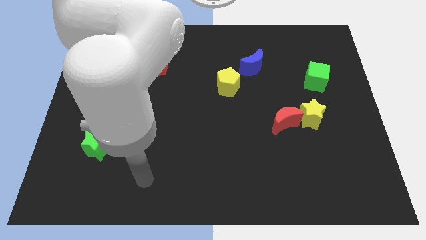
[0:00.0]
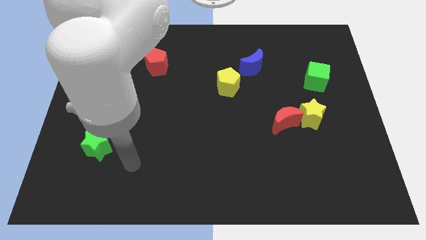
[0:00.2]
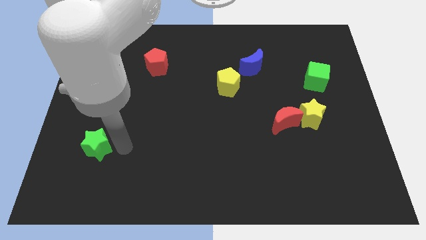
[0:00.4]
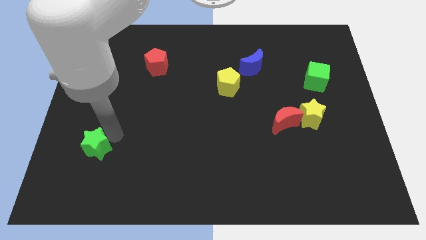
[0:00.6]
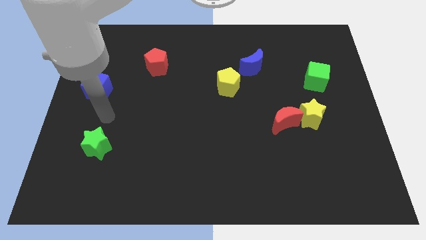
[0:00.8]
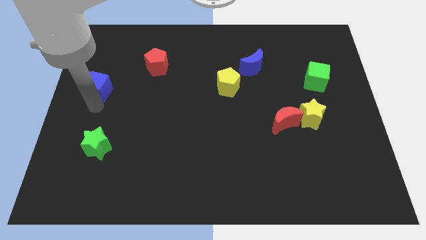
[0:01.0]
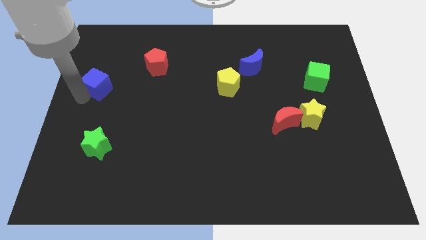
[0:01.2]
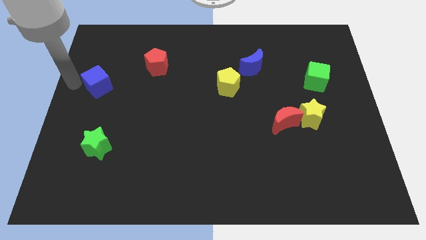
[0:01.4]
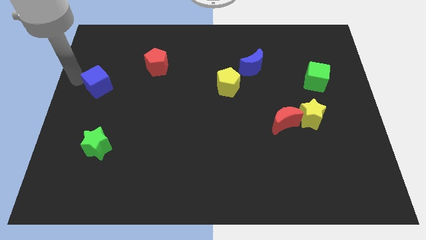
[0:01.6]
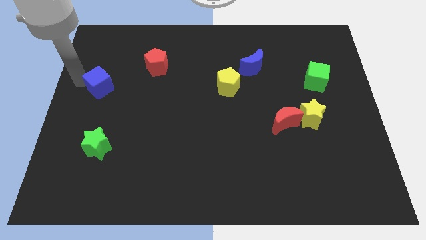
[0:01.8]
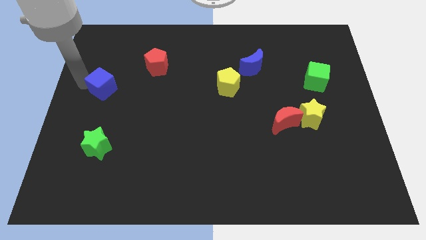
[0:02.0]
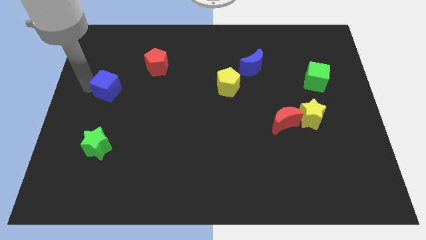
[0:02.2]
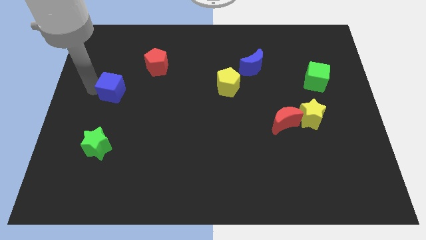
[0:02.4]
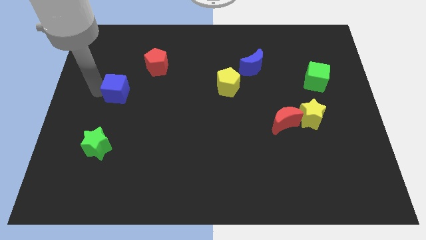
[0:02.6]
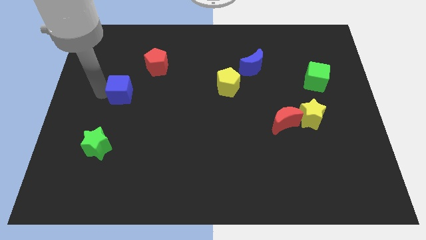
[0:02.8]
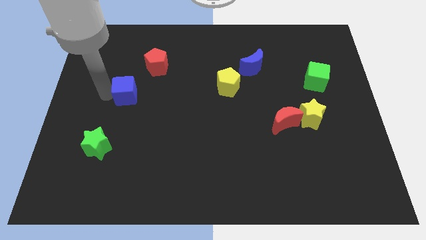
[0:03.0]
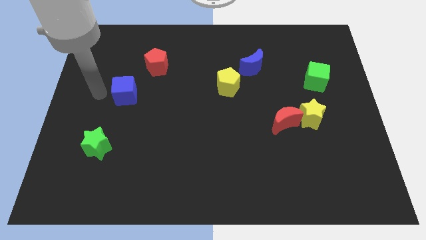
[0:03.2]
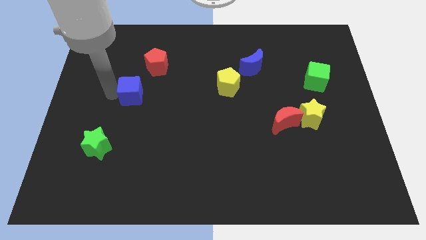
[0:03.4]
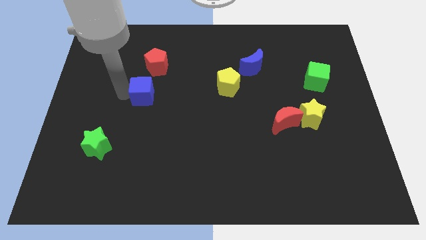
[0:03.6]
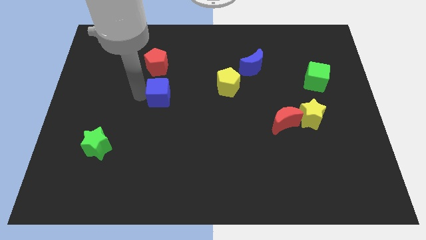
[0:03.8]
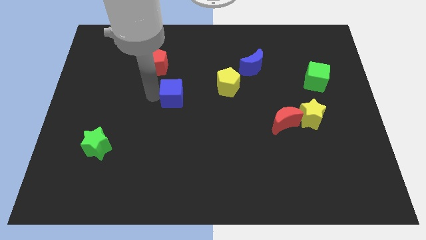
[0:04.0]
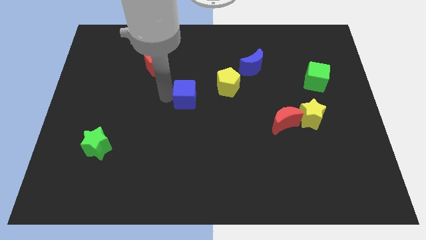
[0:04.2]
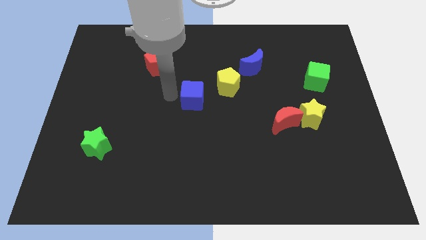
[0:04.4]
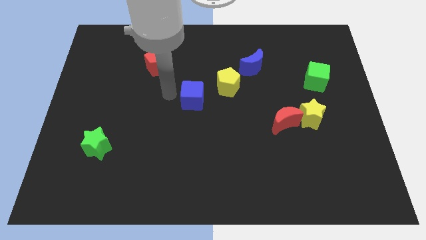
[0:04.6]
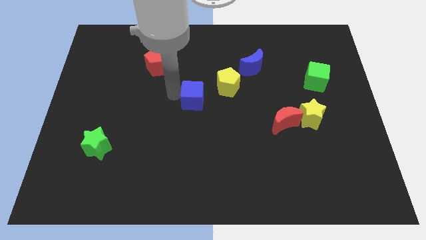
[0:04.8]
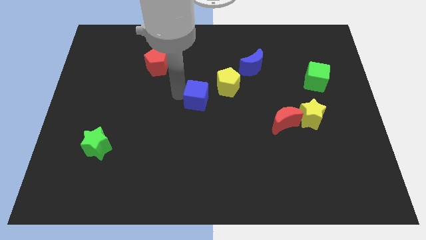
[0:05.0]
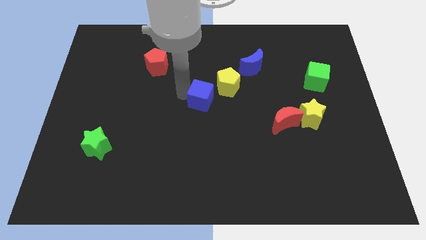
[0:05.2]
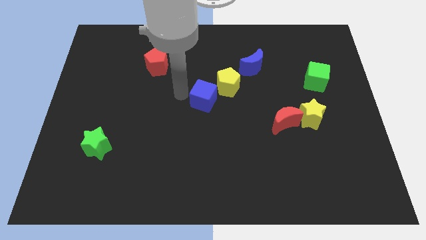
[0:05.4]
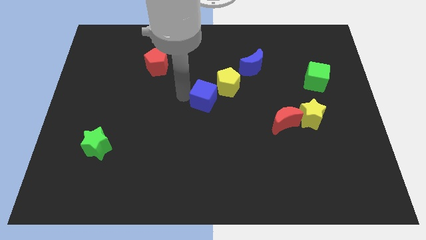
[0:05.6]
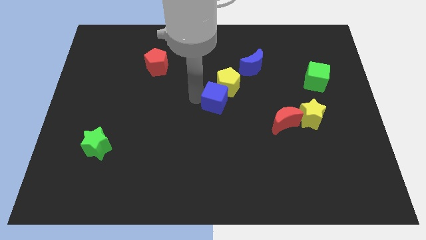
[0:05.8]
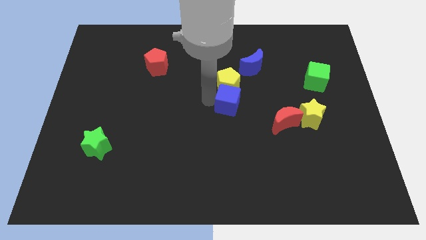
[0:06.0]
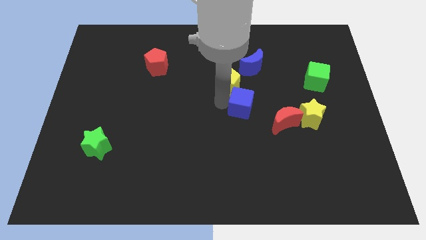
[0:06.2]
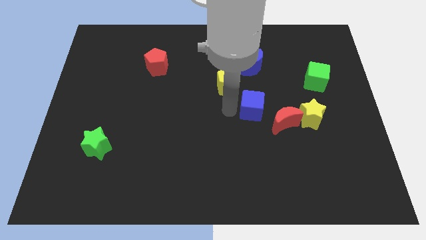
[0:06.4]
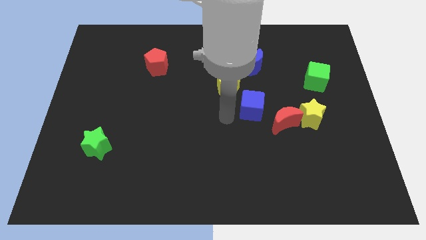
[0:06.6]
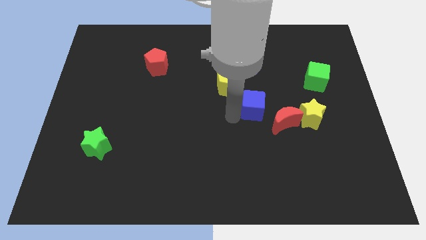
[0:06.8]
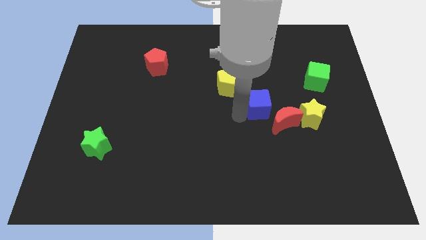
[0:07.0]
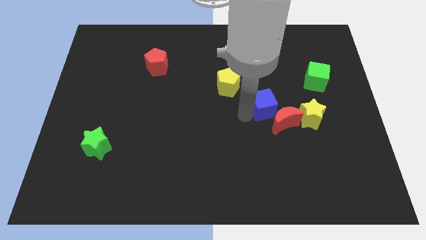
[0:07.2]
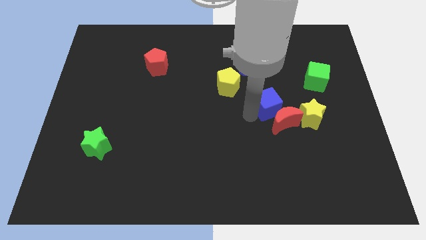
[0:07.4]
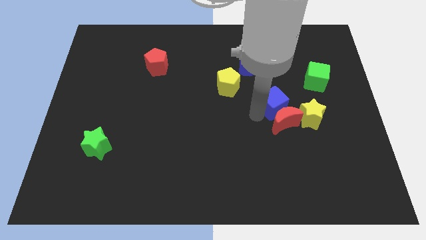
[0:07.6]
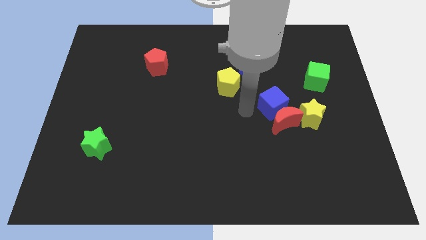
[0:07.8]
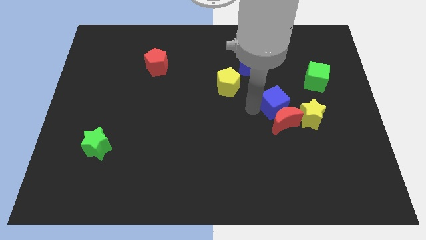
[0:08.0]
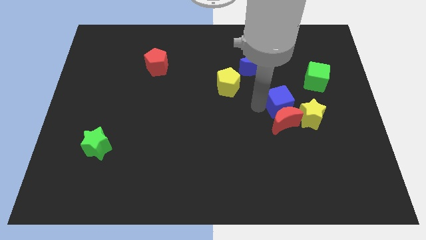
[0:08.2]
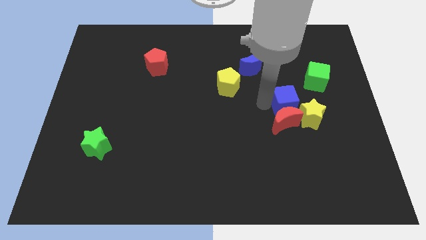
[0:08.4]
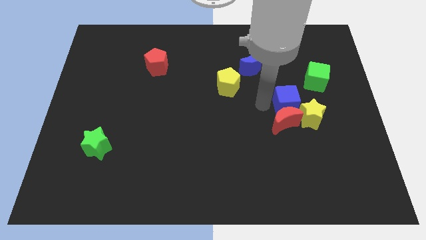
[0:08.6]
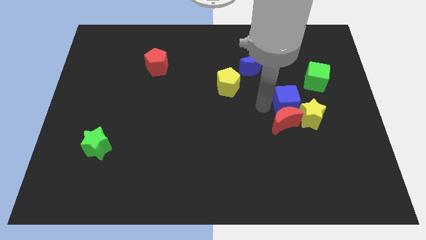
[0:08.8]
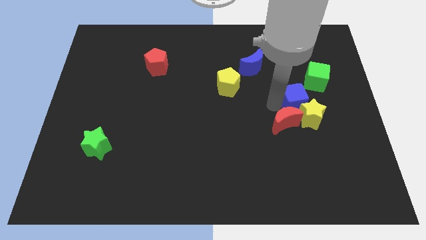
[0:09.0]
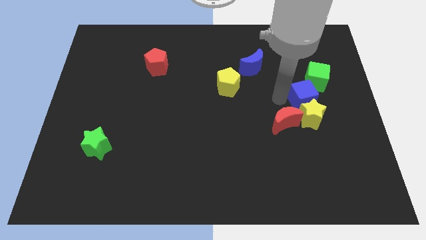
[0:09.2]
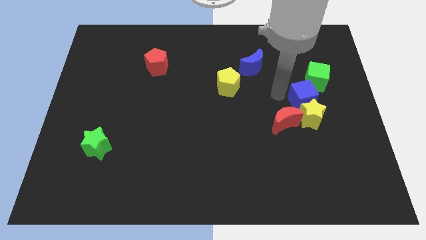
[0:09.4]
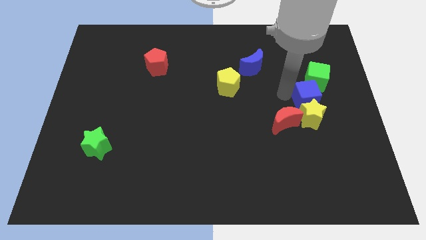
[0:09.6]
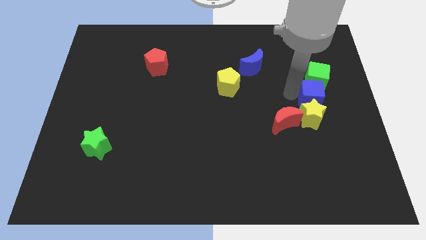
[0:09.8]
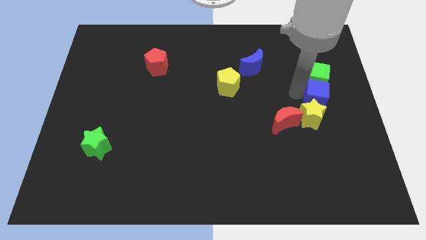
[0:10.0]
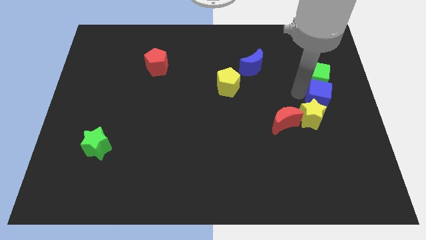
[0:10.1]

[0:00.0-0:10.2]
put the blue cube to the right side
